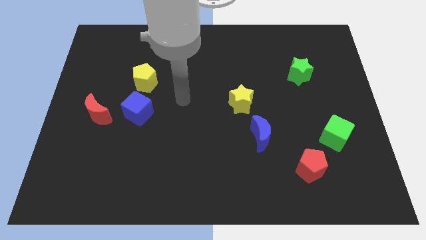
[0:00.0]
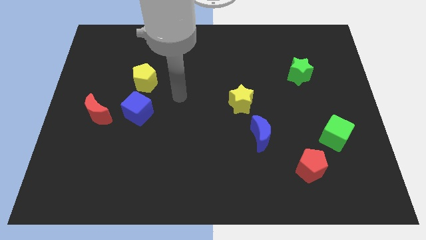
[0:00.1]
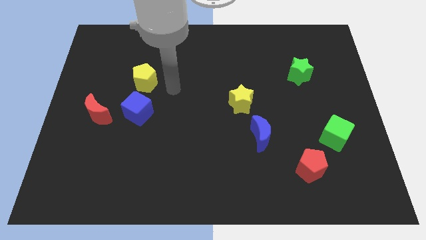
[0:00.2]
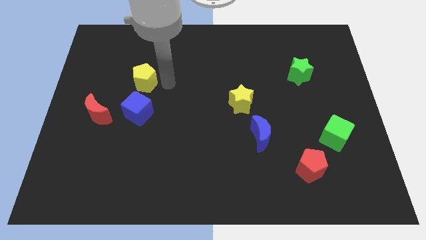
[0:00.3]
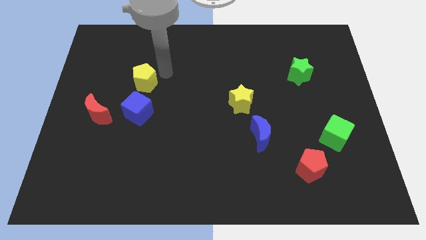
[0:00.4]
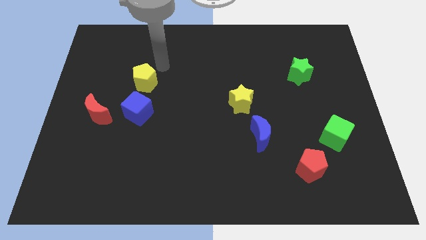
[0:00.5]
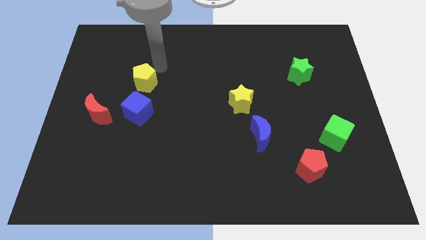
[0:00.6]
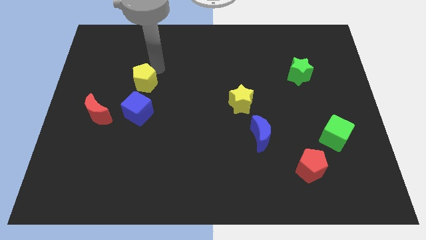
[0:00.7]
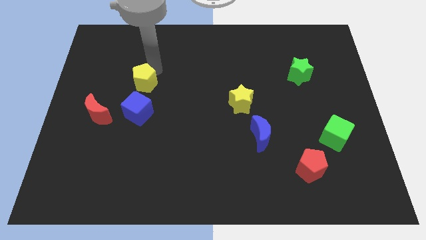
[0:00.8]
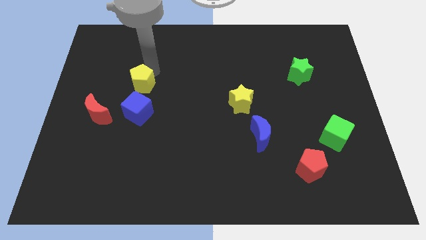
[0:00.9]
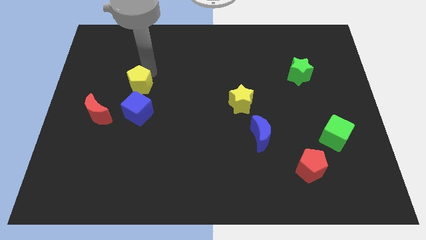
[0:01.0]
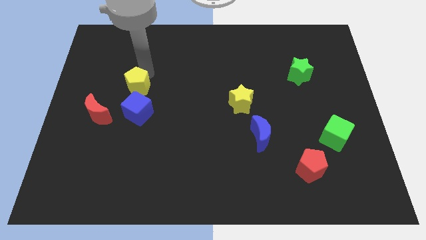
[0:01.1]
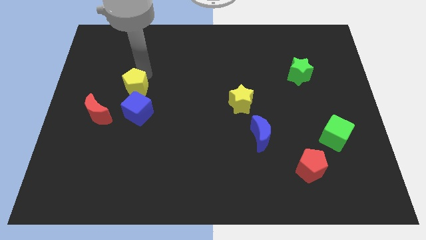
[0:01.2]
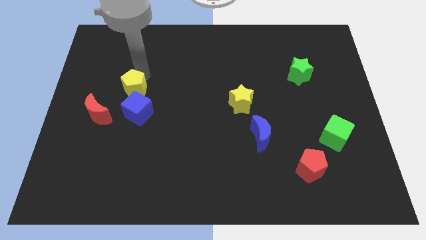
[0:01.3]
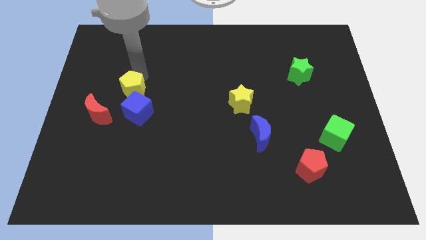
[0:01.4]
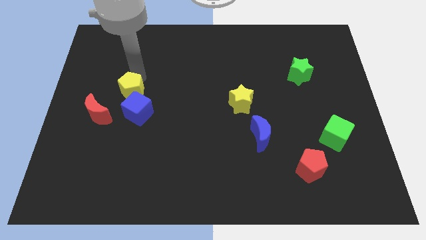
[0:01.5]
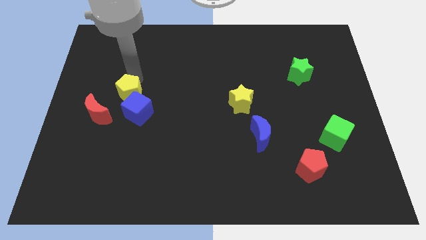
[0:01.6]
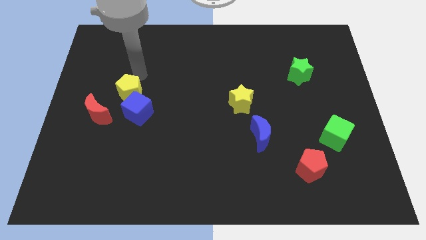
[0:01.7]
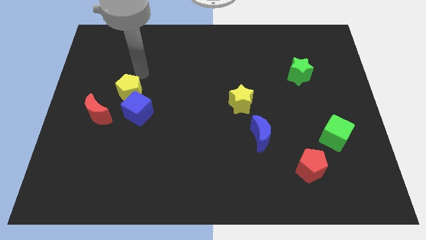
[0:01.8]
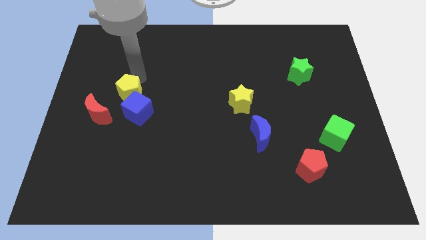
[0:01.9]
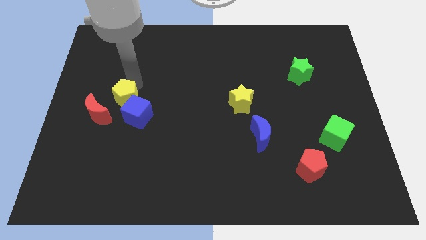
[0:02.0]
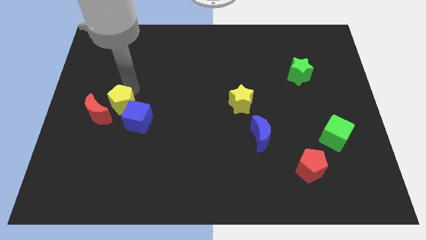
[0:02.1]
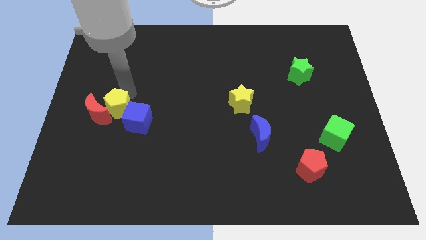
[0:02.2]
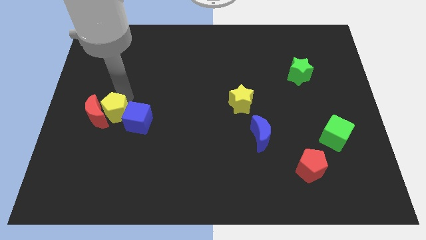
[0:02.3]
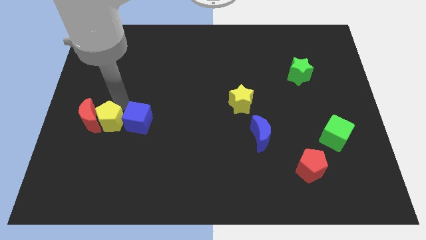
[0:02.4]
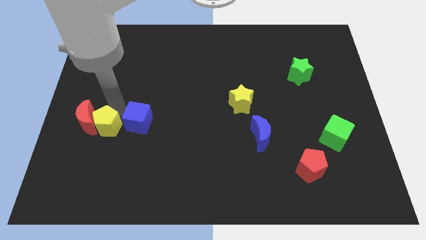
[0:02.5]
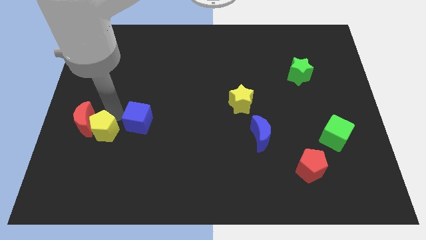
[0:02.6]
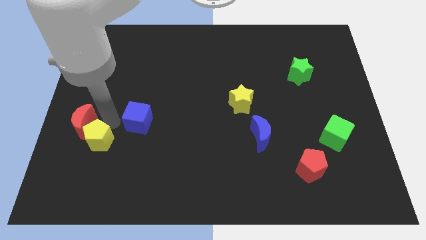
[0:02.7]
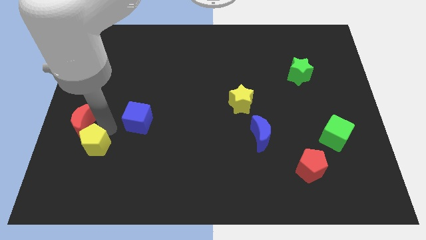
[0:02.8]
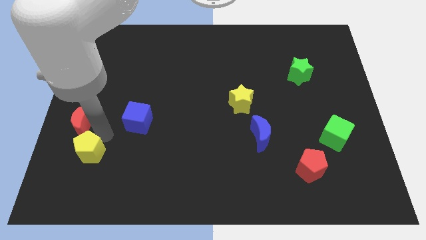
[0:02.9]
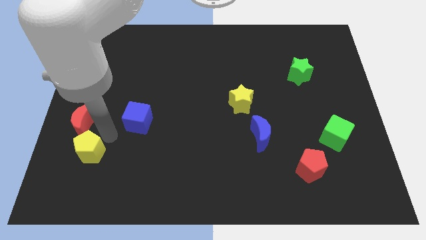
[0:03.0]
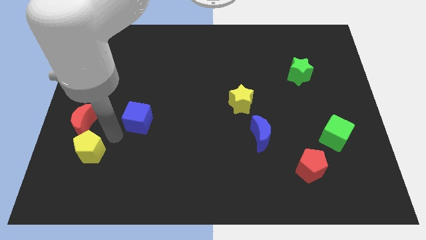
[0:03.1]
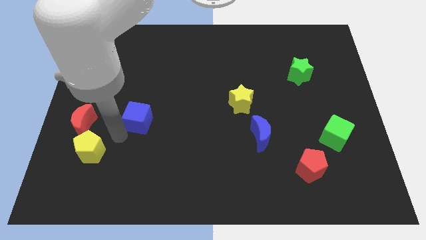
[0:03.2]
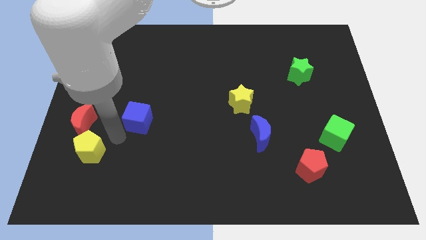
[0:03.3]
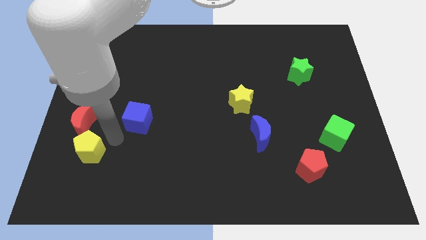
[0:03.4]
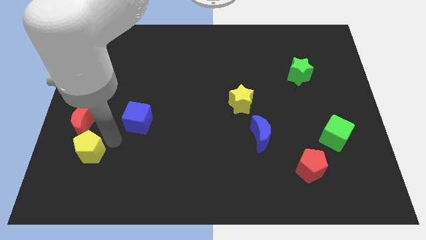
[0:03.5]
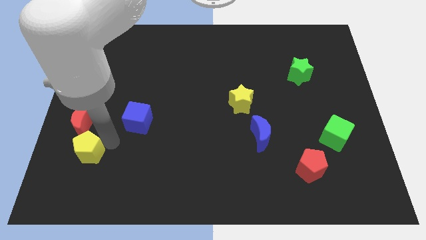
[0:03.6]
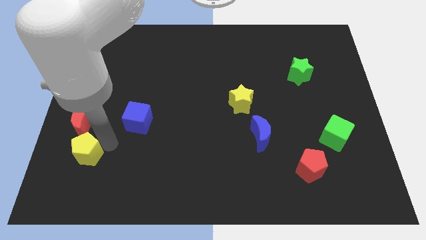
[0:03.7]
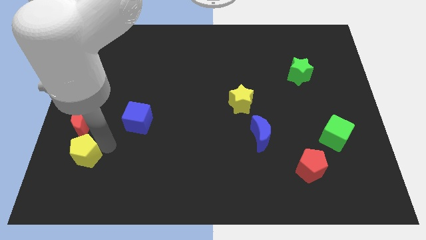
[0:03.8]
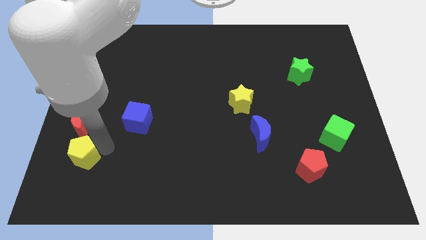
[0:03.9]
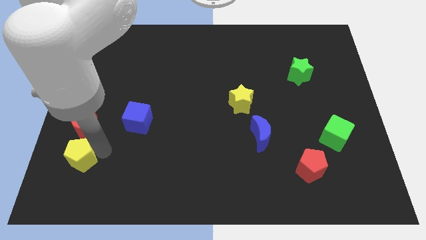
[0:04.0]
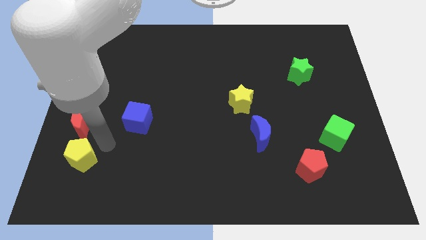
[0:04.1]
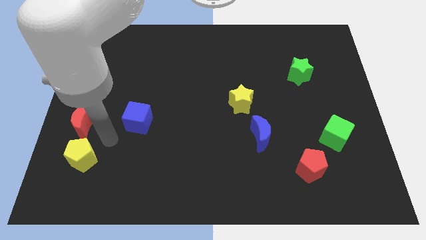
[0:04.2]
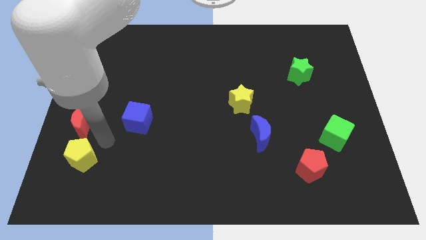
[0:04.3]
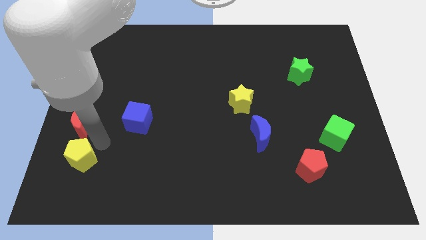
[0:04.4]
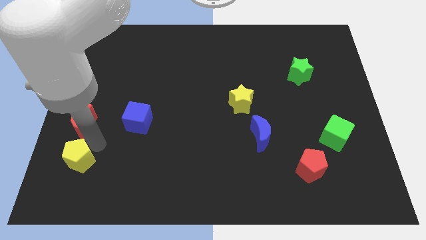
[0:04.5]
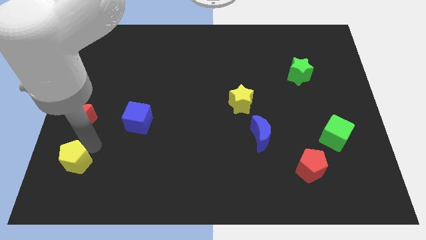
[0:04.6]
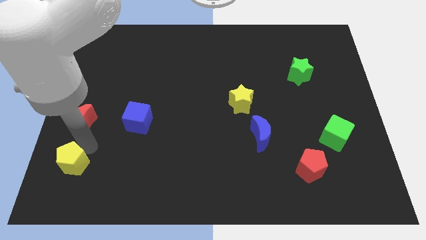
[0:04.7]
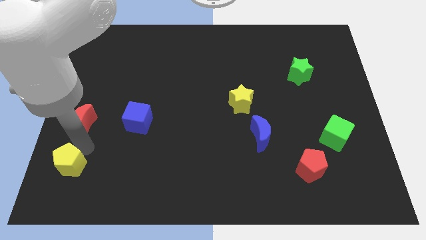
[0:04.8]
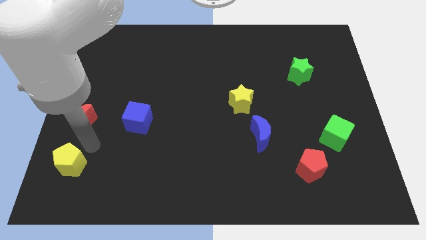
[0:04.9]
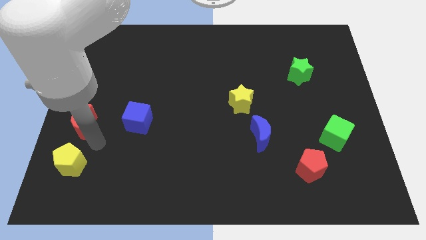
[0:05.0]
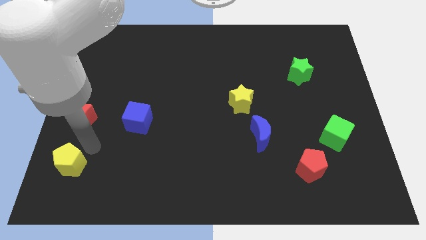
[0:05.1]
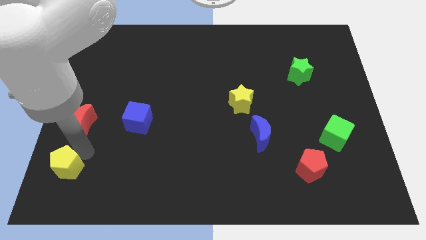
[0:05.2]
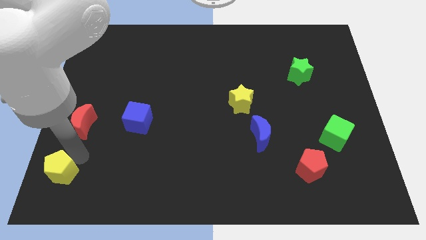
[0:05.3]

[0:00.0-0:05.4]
move the yellow pentagon to the bottom left

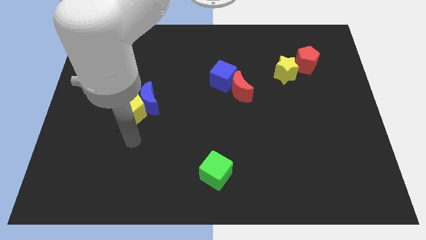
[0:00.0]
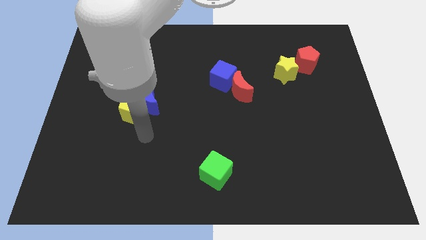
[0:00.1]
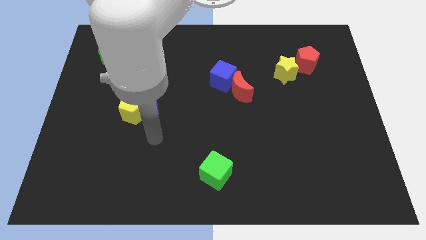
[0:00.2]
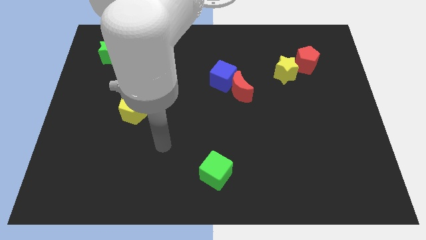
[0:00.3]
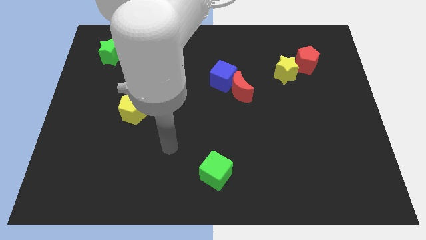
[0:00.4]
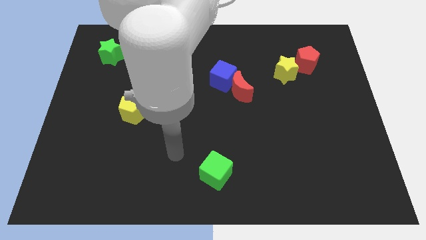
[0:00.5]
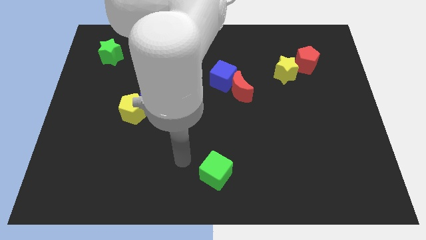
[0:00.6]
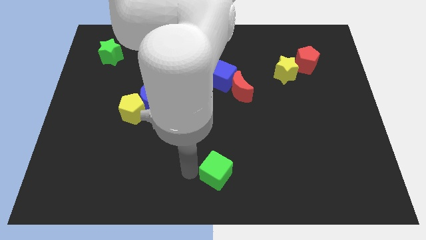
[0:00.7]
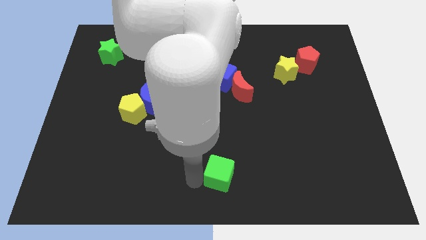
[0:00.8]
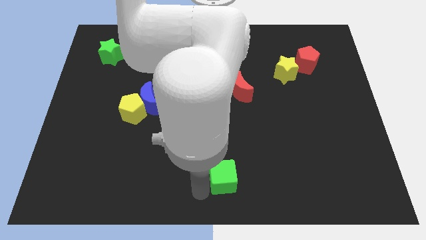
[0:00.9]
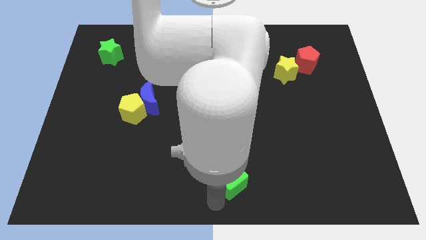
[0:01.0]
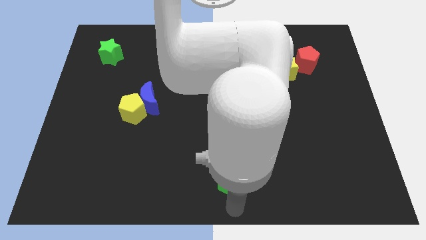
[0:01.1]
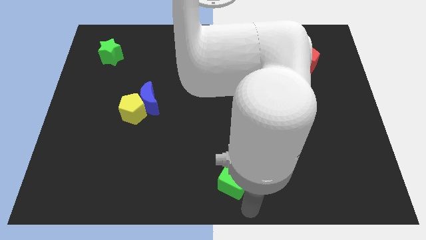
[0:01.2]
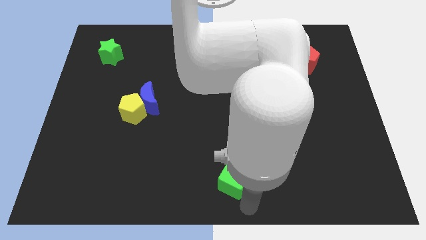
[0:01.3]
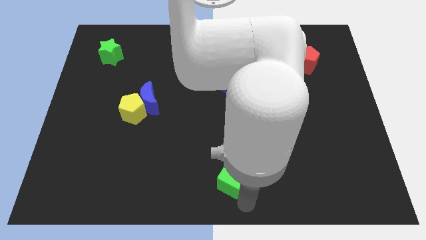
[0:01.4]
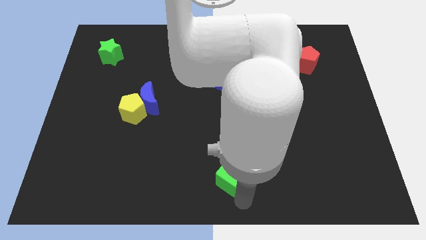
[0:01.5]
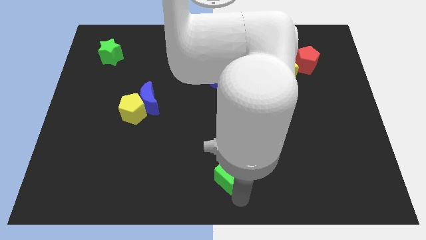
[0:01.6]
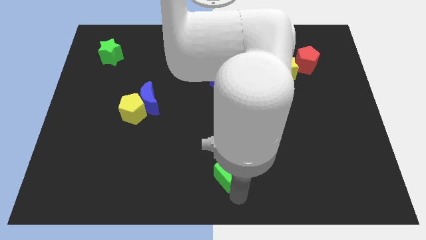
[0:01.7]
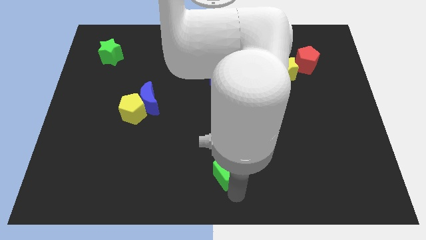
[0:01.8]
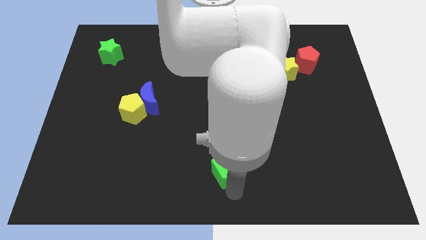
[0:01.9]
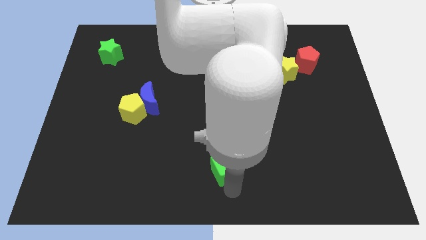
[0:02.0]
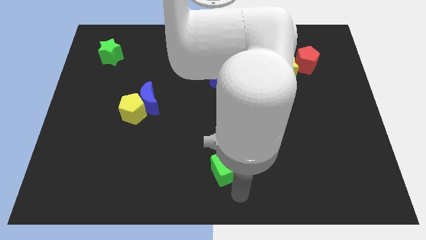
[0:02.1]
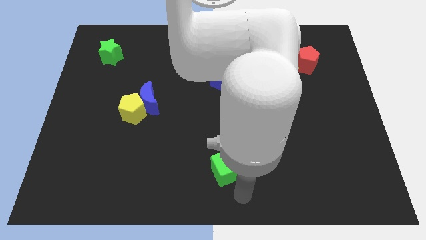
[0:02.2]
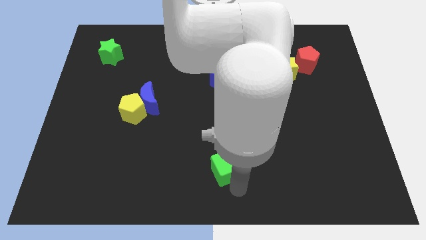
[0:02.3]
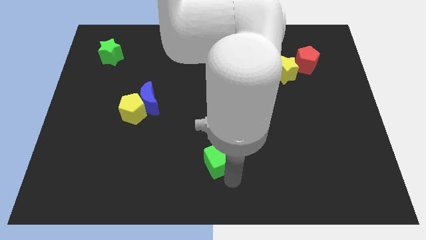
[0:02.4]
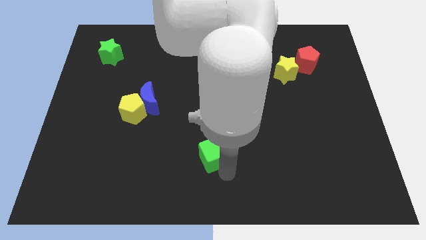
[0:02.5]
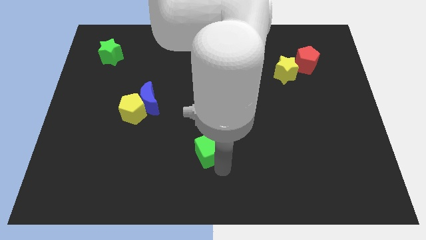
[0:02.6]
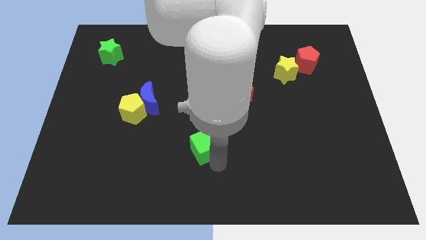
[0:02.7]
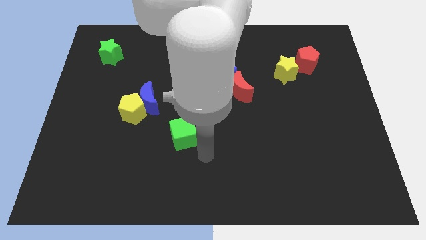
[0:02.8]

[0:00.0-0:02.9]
move the green cube to the center of the board
